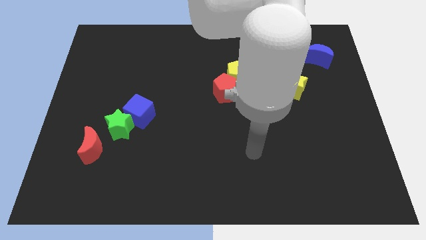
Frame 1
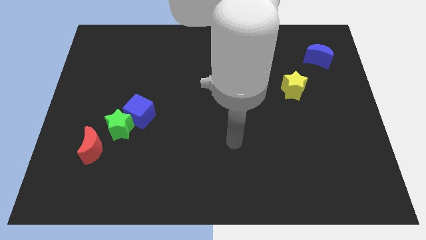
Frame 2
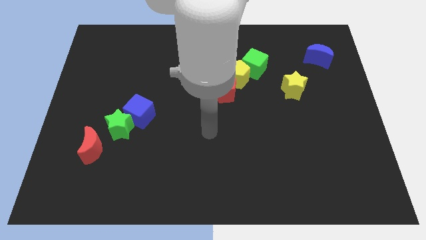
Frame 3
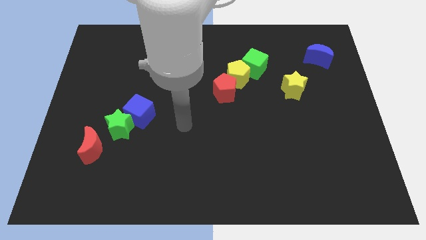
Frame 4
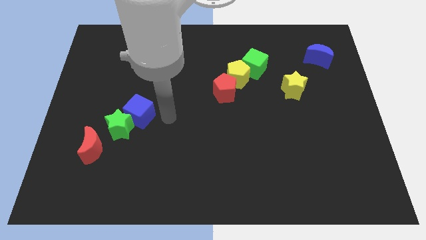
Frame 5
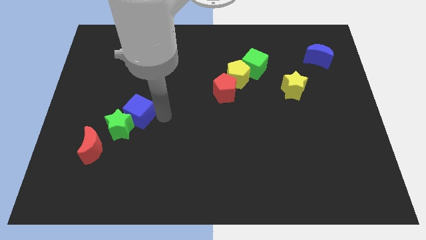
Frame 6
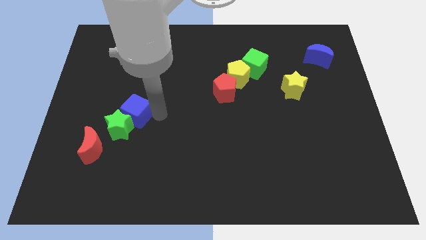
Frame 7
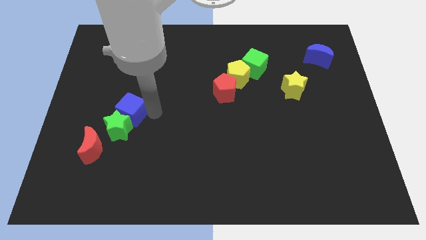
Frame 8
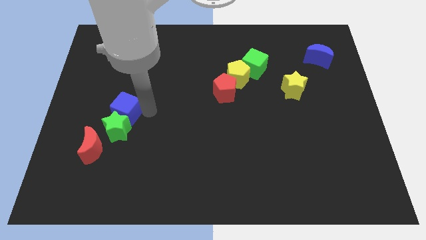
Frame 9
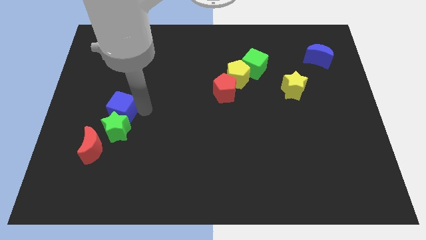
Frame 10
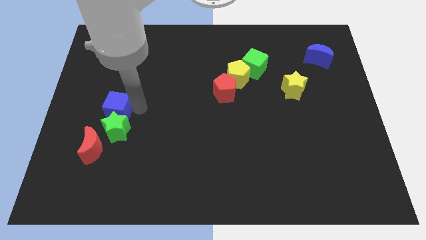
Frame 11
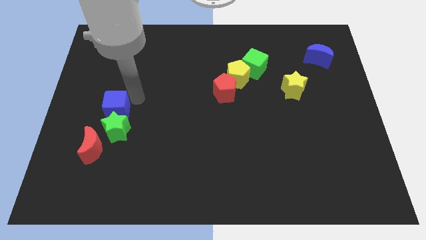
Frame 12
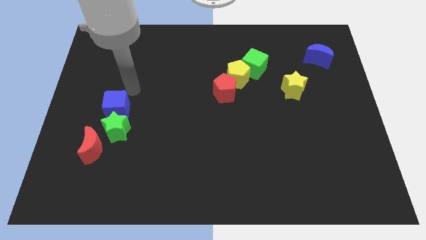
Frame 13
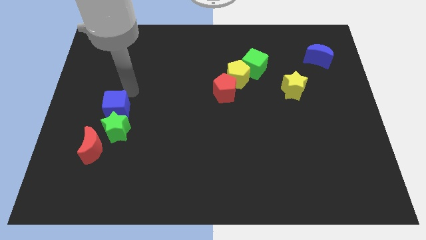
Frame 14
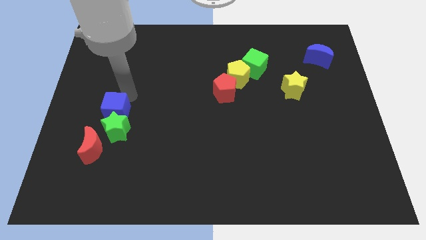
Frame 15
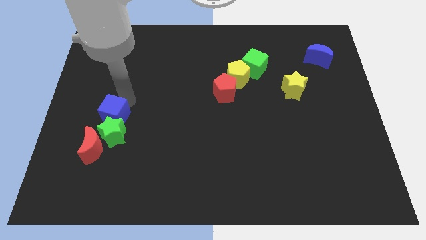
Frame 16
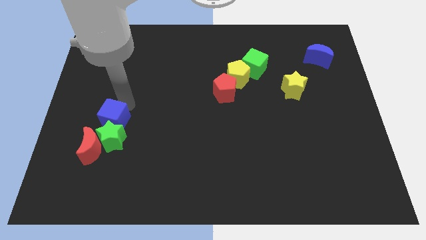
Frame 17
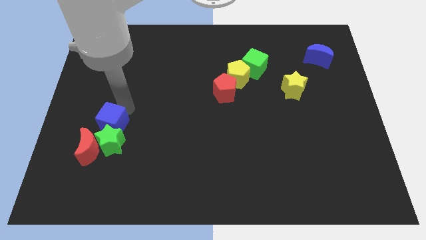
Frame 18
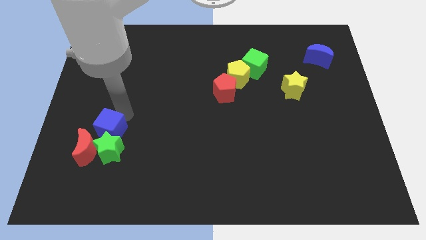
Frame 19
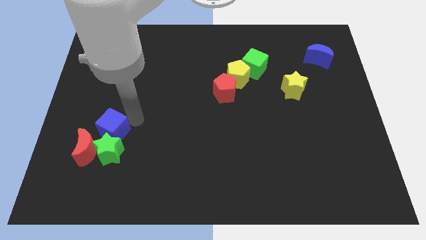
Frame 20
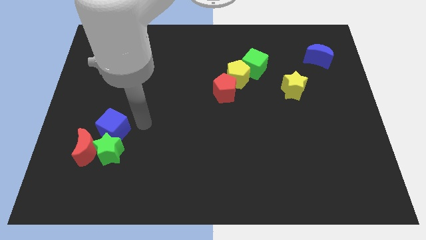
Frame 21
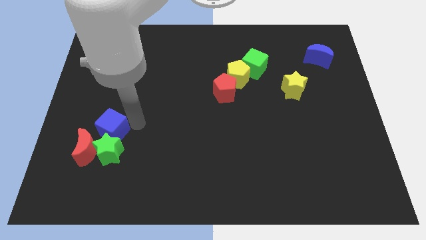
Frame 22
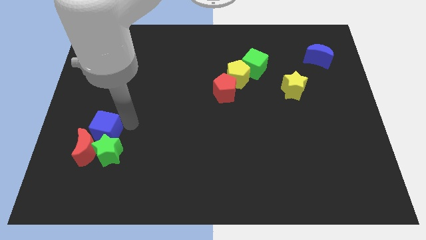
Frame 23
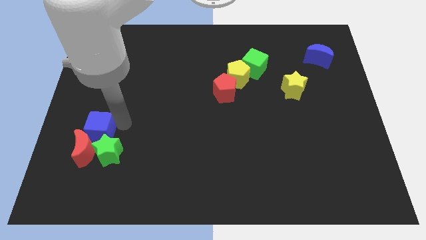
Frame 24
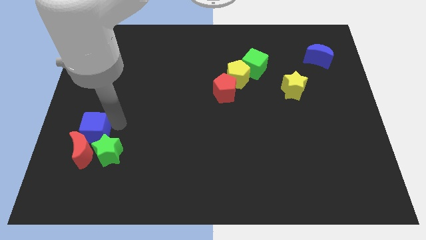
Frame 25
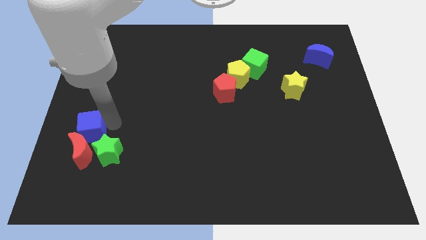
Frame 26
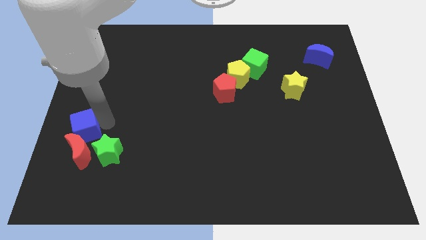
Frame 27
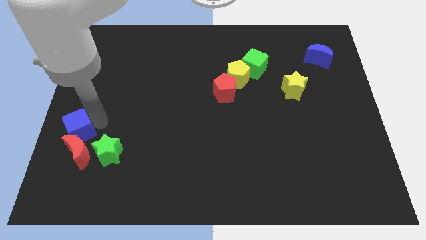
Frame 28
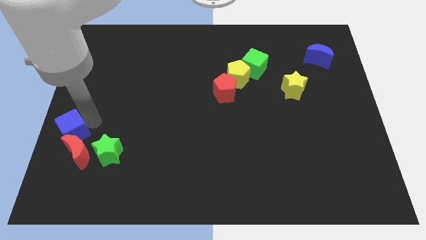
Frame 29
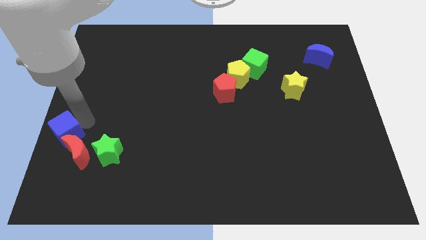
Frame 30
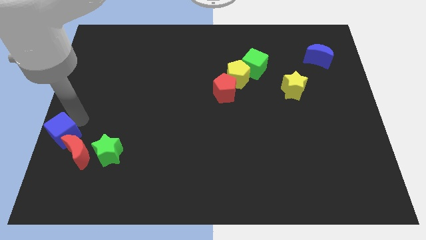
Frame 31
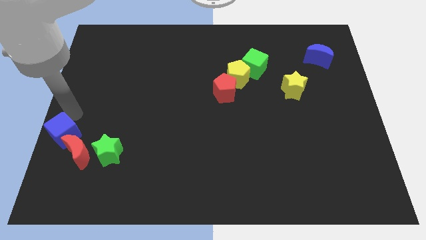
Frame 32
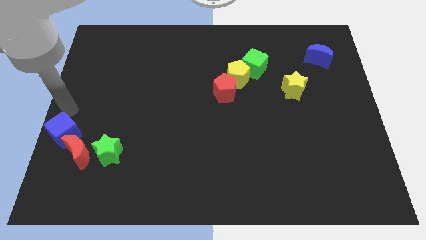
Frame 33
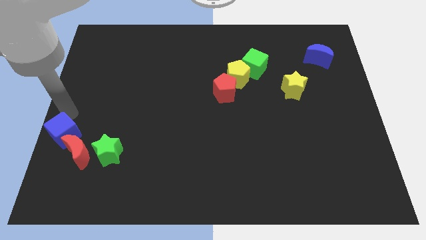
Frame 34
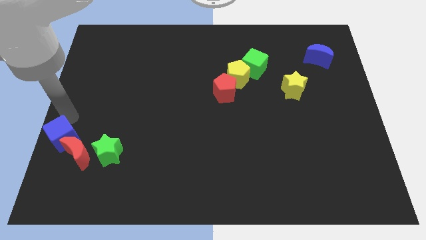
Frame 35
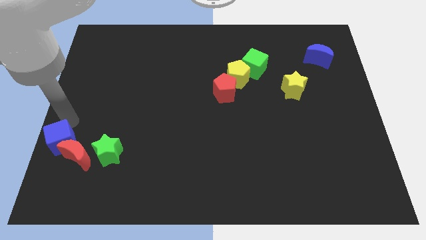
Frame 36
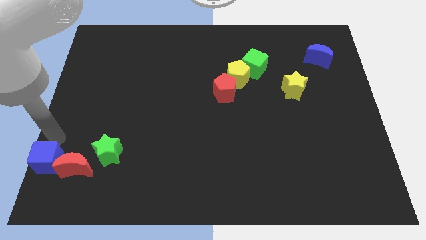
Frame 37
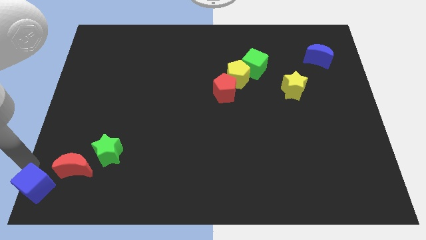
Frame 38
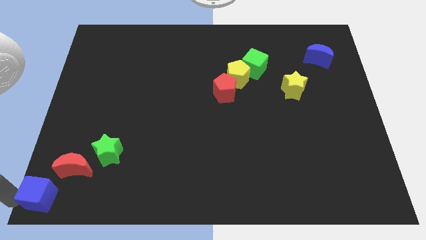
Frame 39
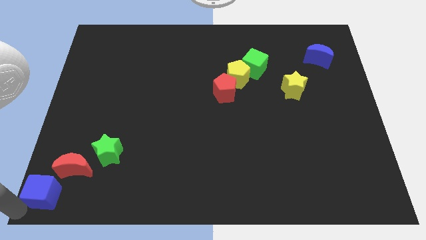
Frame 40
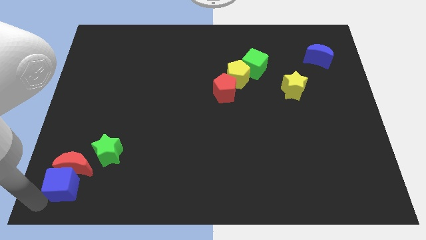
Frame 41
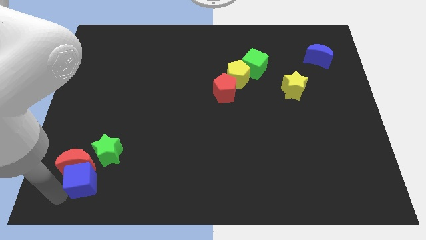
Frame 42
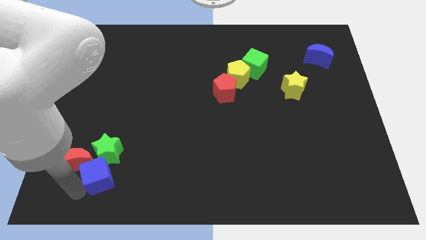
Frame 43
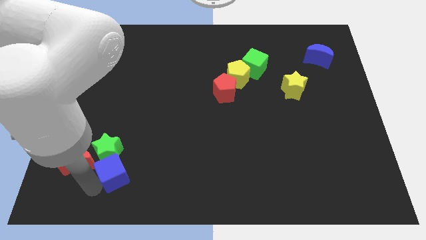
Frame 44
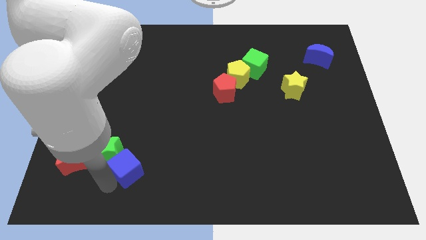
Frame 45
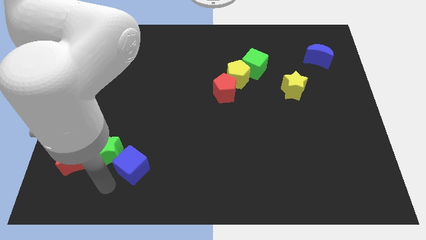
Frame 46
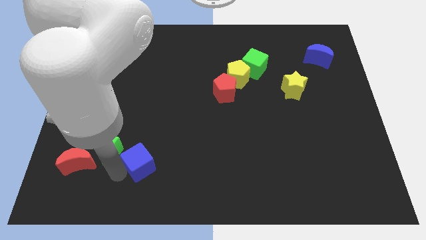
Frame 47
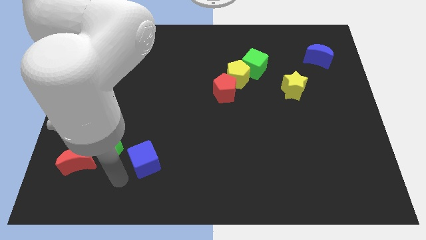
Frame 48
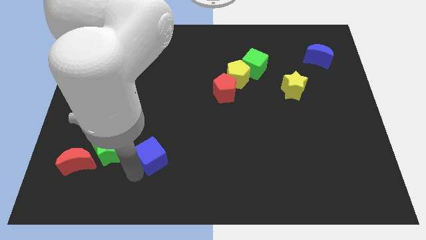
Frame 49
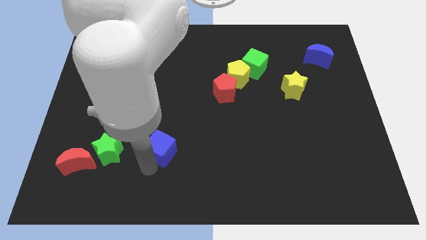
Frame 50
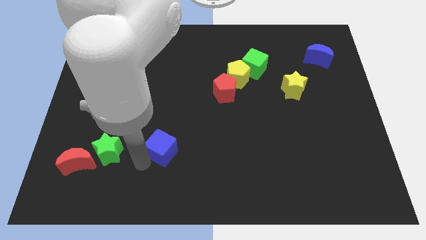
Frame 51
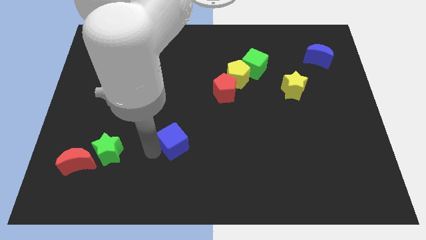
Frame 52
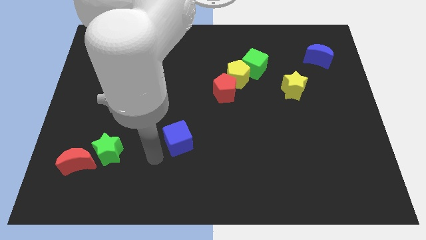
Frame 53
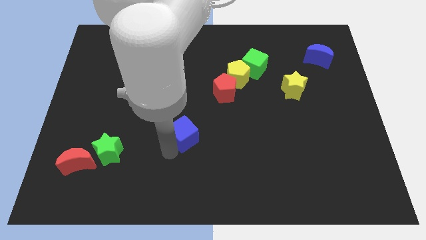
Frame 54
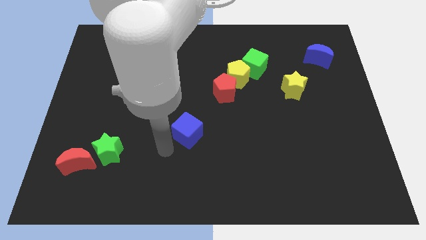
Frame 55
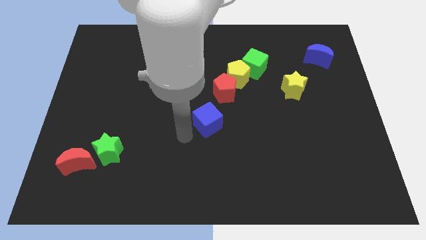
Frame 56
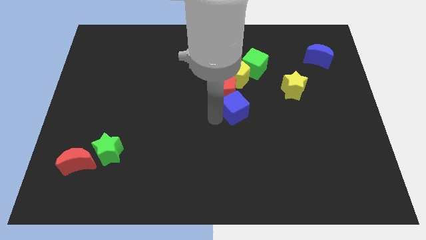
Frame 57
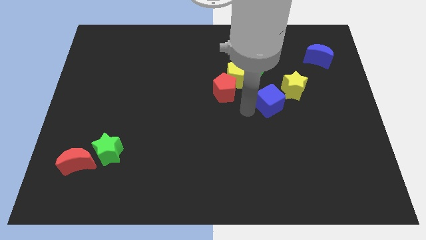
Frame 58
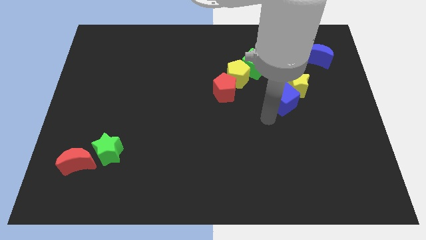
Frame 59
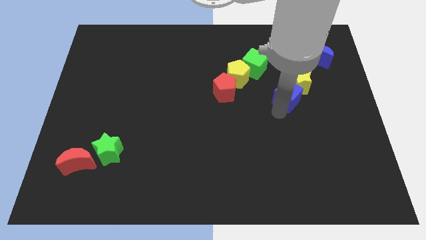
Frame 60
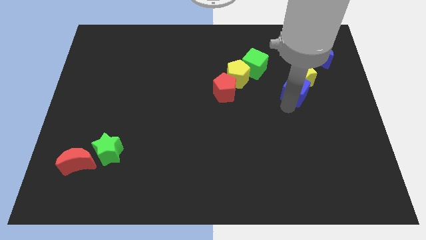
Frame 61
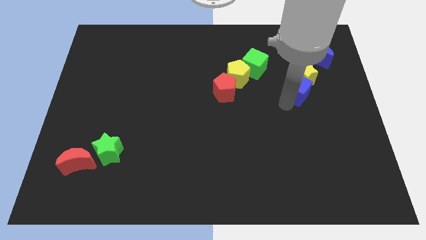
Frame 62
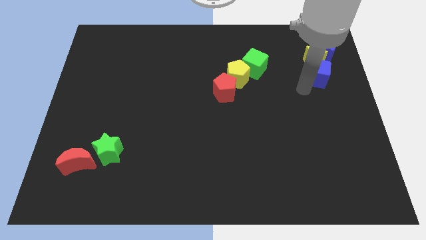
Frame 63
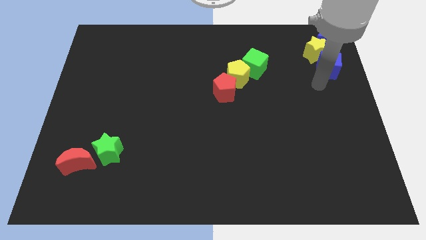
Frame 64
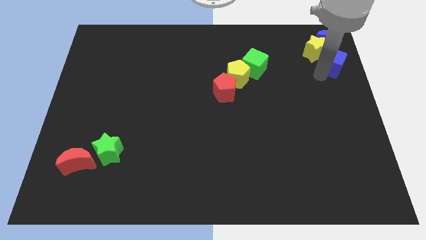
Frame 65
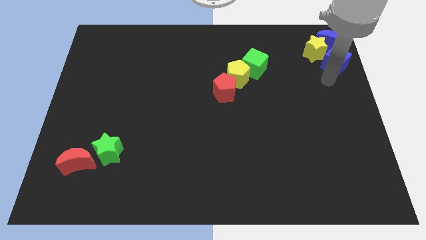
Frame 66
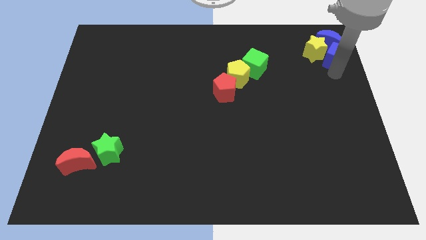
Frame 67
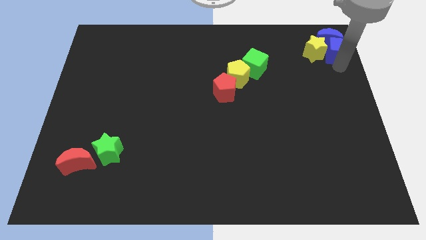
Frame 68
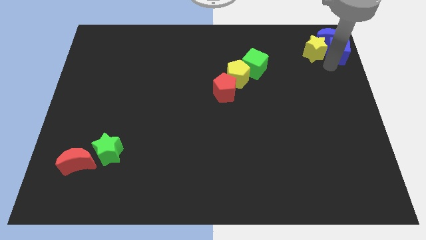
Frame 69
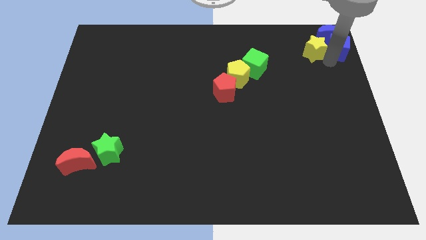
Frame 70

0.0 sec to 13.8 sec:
push the blue cube to the top right
